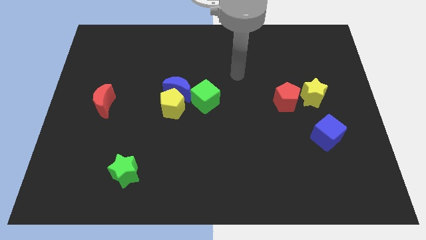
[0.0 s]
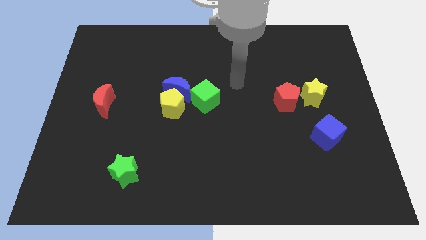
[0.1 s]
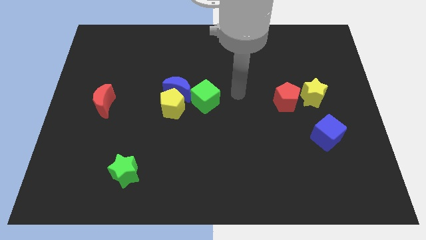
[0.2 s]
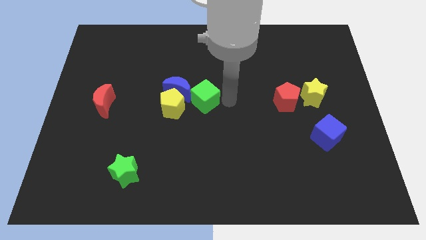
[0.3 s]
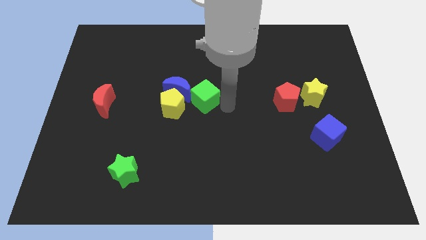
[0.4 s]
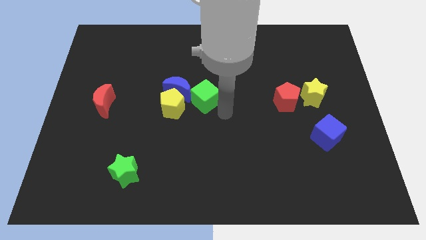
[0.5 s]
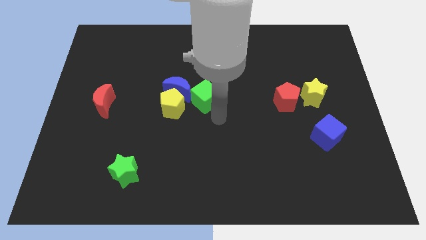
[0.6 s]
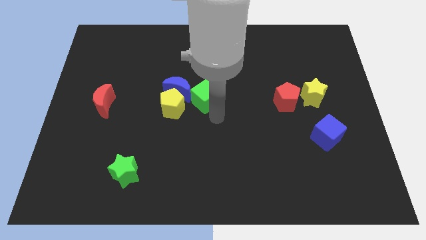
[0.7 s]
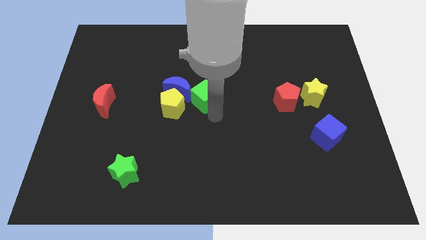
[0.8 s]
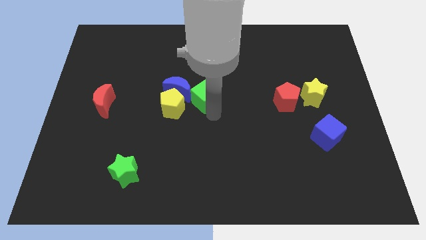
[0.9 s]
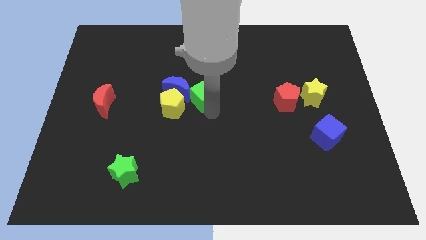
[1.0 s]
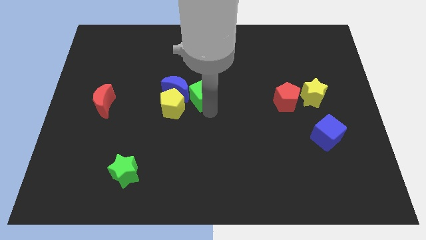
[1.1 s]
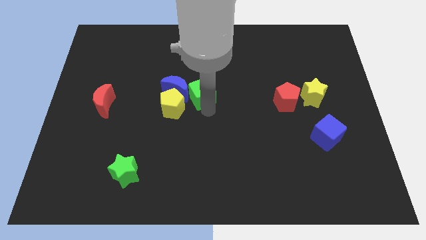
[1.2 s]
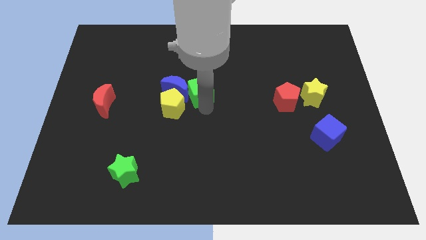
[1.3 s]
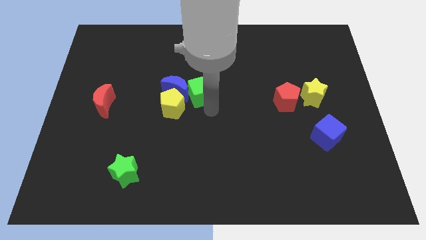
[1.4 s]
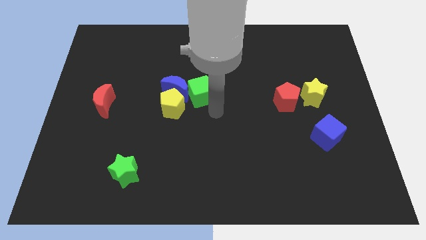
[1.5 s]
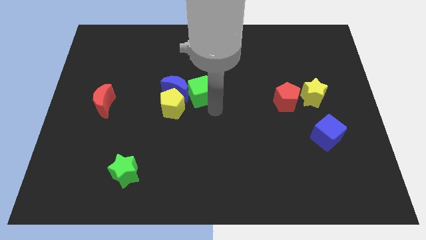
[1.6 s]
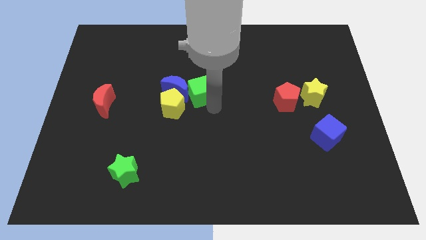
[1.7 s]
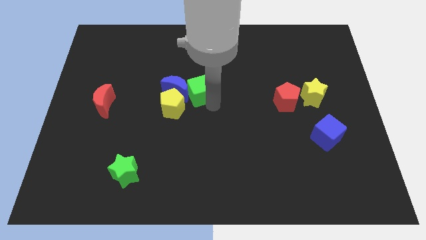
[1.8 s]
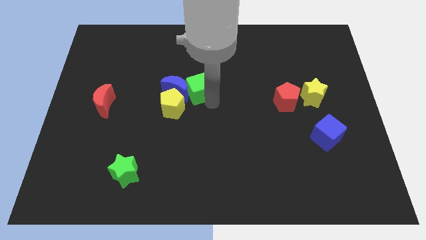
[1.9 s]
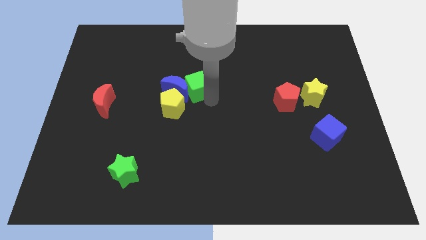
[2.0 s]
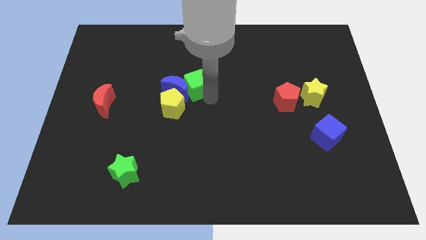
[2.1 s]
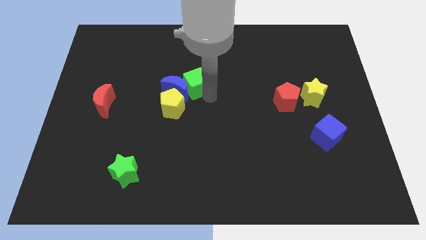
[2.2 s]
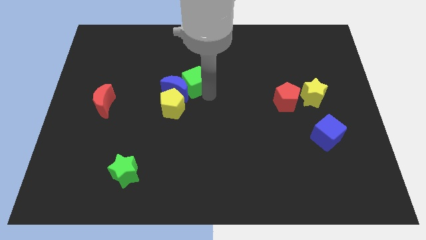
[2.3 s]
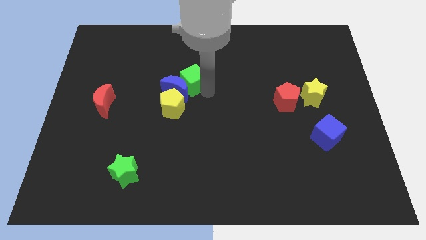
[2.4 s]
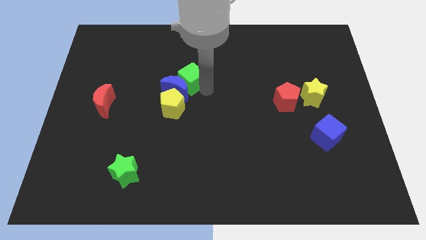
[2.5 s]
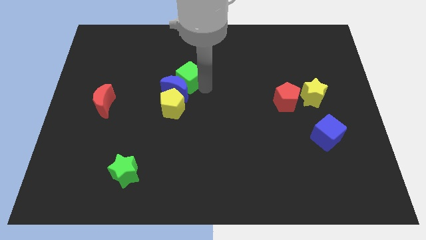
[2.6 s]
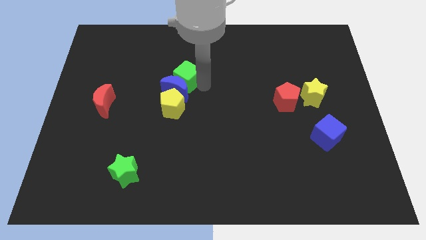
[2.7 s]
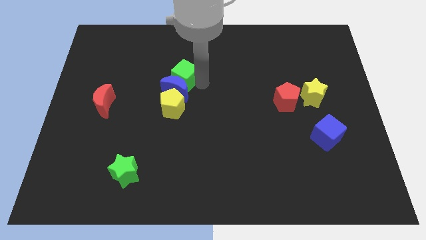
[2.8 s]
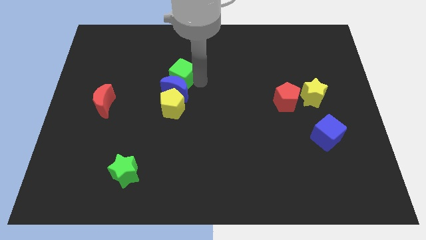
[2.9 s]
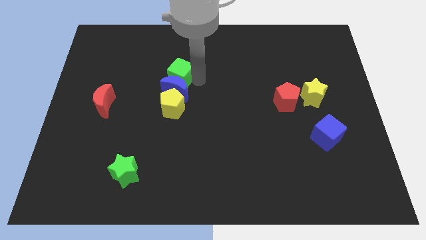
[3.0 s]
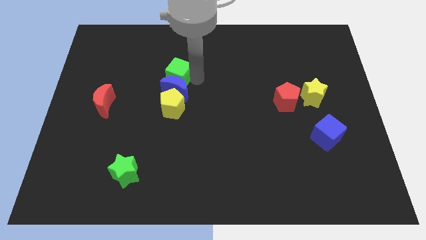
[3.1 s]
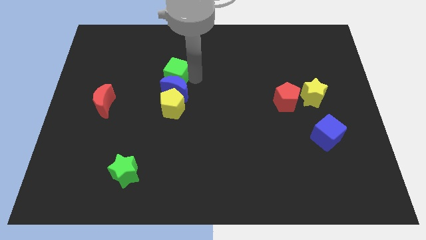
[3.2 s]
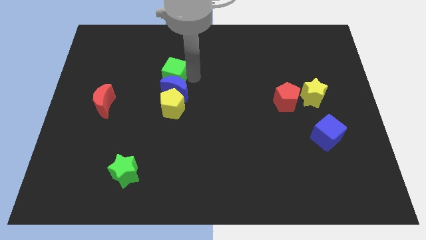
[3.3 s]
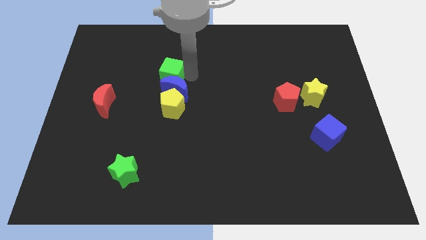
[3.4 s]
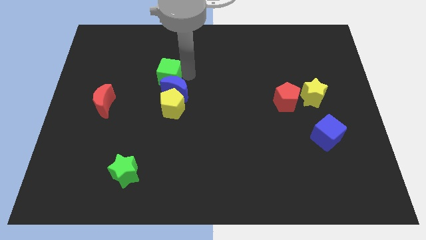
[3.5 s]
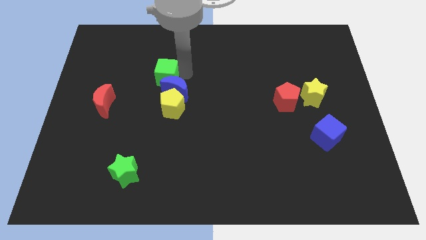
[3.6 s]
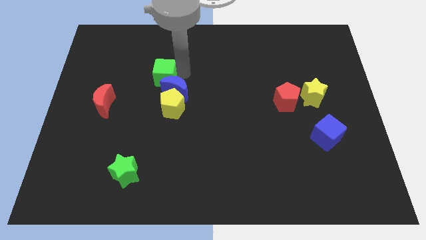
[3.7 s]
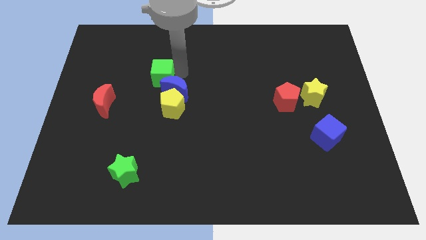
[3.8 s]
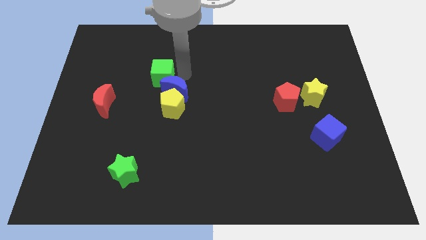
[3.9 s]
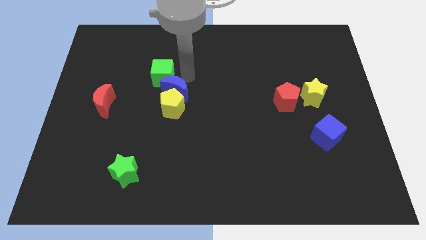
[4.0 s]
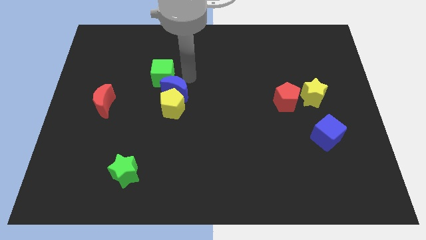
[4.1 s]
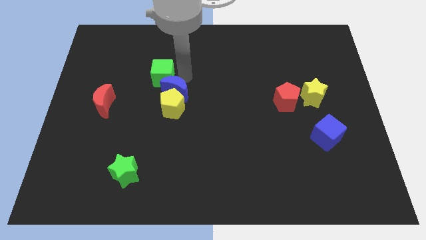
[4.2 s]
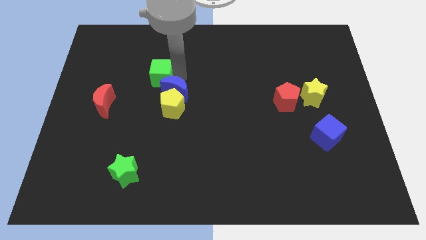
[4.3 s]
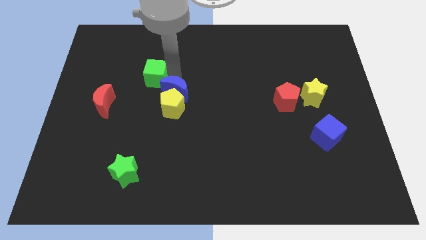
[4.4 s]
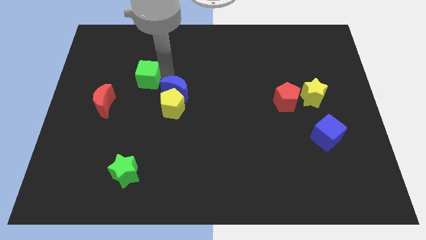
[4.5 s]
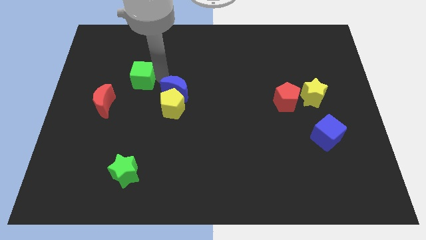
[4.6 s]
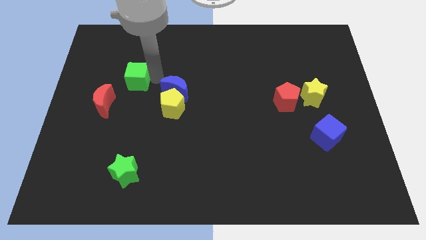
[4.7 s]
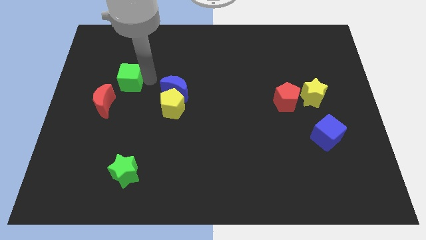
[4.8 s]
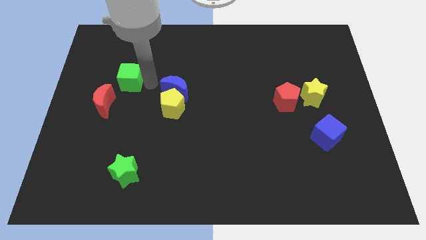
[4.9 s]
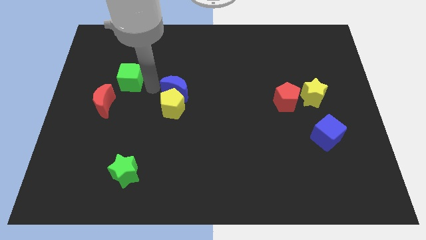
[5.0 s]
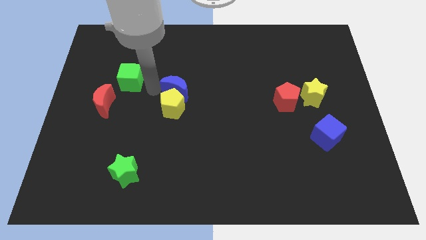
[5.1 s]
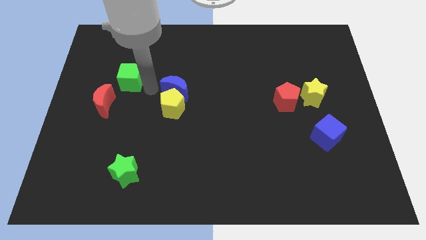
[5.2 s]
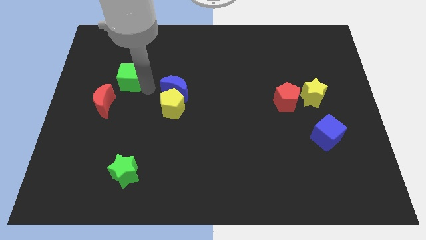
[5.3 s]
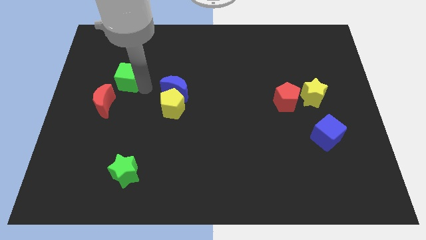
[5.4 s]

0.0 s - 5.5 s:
move the green cube above the red moon

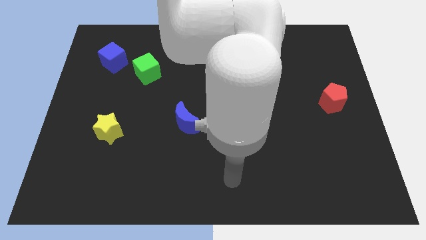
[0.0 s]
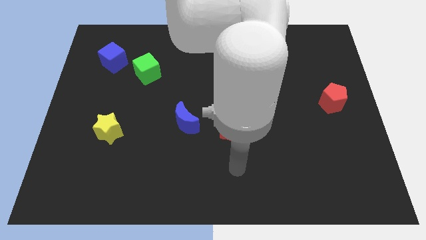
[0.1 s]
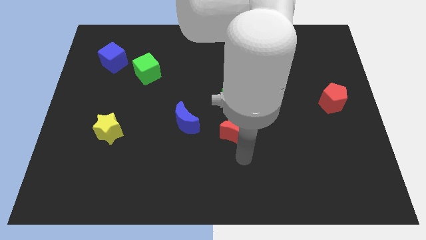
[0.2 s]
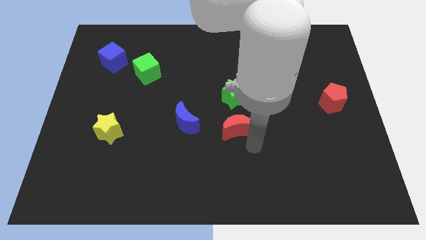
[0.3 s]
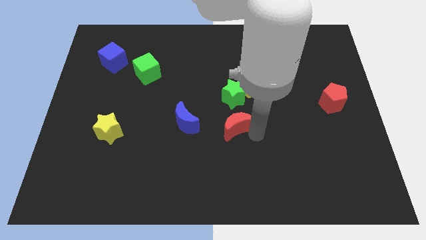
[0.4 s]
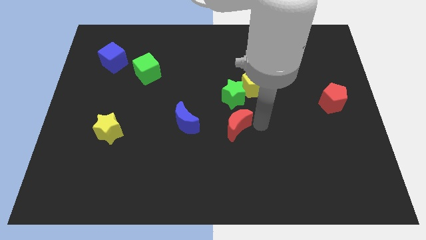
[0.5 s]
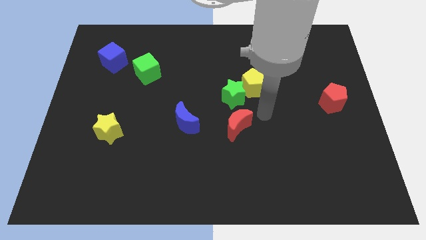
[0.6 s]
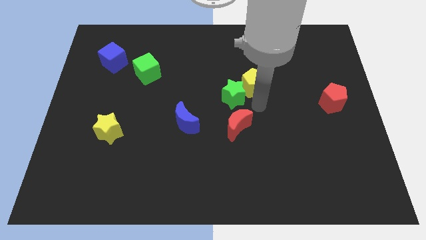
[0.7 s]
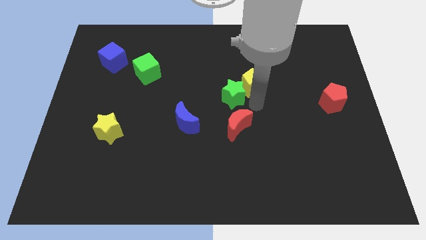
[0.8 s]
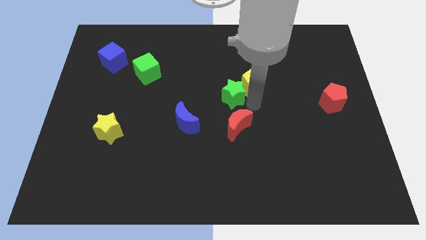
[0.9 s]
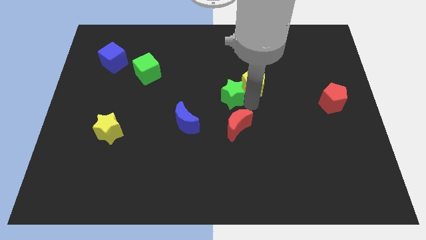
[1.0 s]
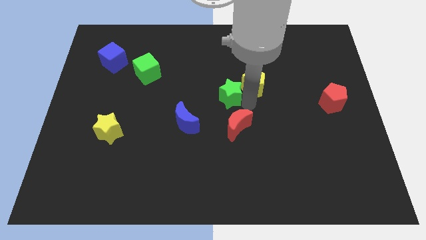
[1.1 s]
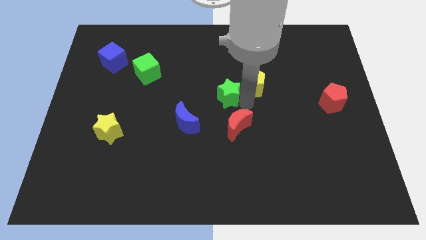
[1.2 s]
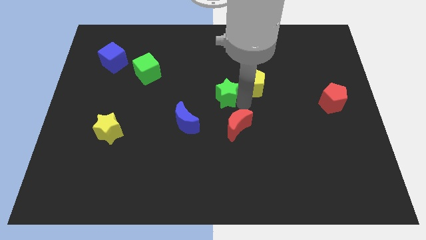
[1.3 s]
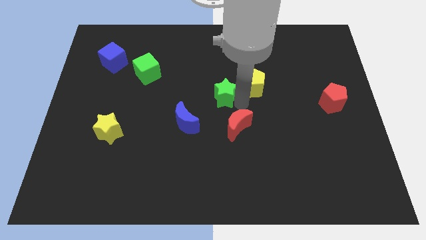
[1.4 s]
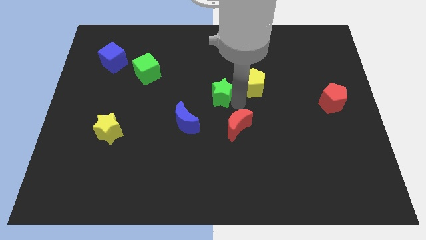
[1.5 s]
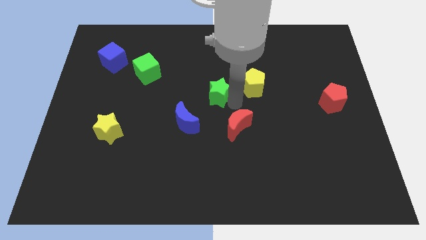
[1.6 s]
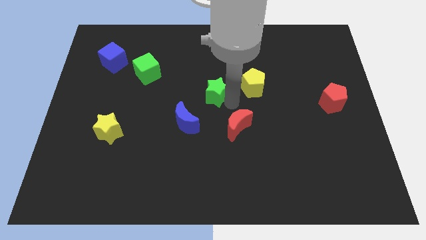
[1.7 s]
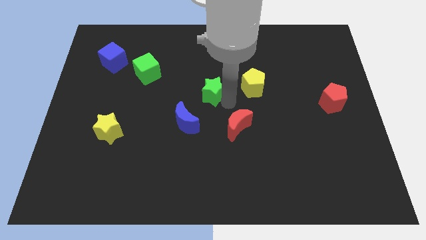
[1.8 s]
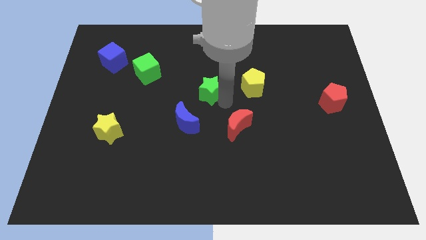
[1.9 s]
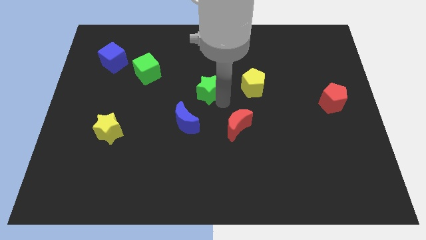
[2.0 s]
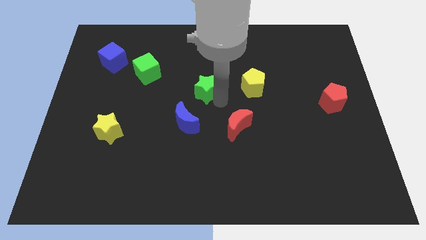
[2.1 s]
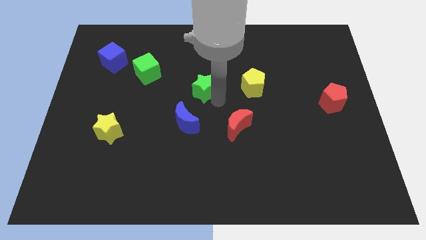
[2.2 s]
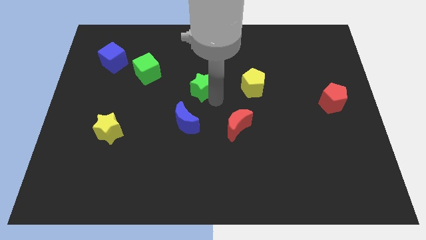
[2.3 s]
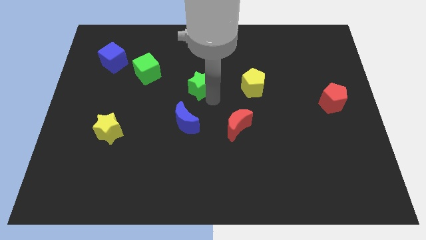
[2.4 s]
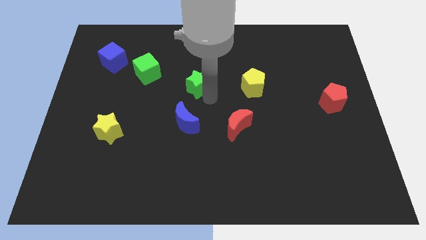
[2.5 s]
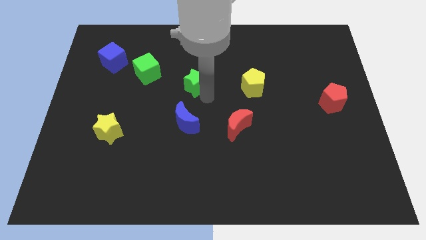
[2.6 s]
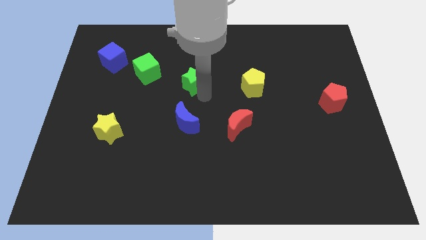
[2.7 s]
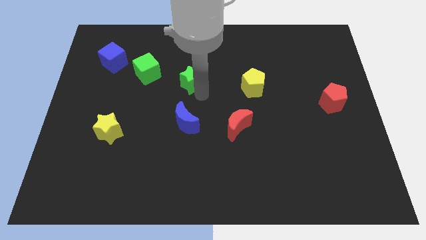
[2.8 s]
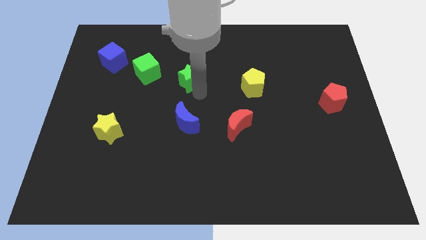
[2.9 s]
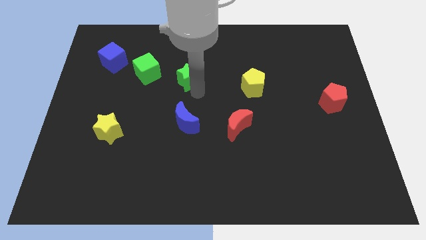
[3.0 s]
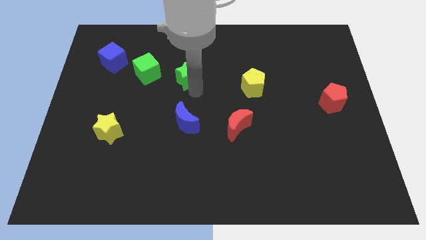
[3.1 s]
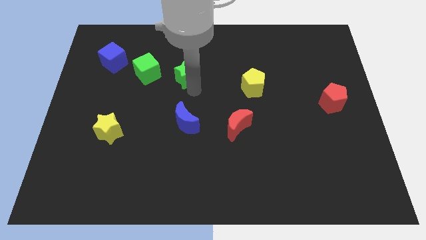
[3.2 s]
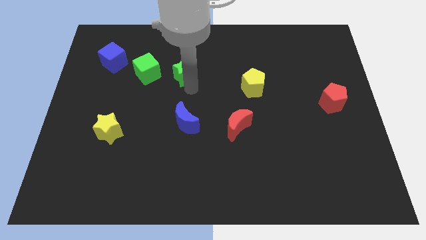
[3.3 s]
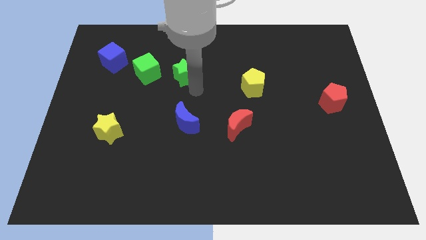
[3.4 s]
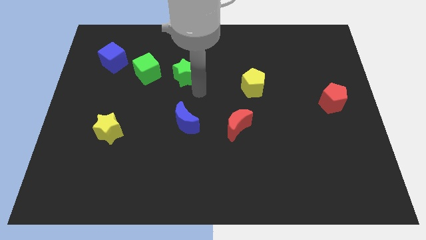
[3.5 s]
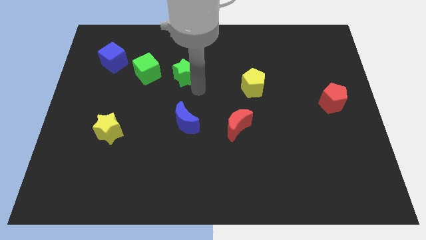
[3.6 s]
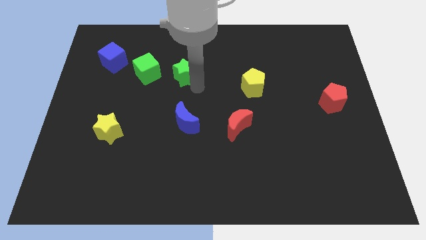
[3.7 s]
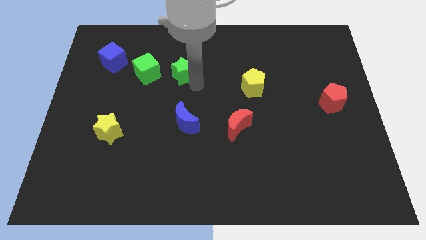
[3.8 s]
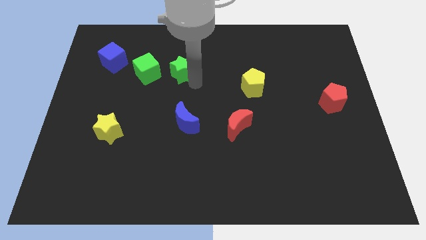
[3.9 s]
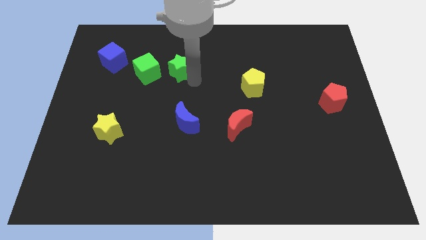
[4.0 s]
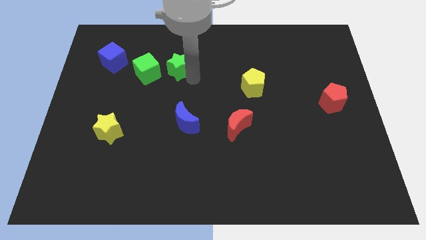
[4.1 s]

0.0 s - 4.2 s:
put the green star to the top right side of the green cube
